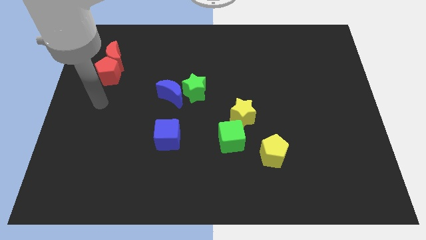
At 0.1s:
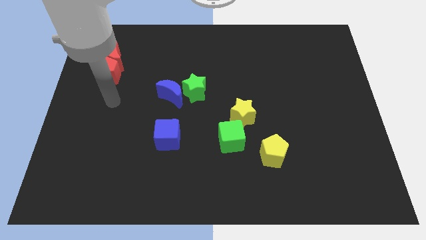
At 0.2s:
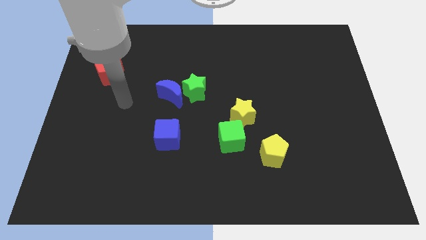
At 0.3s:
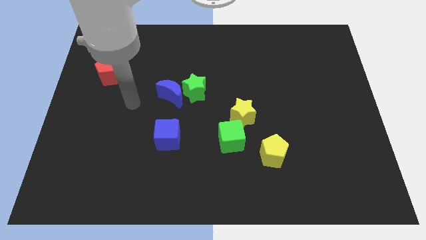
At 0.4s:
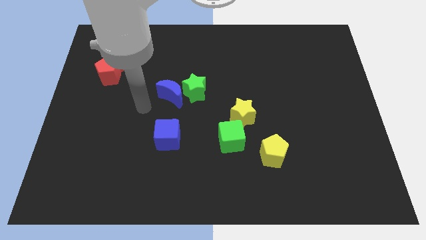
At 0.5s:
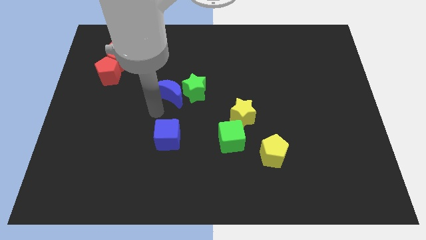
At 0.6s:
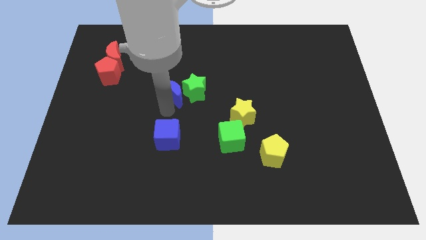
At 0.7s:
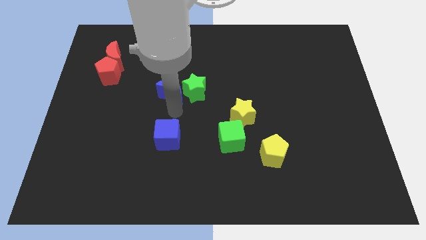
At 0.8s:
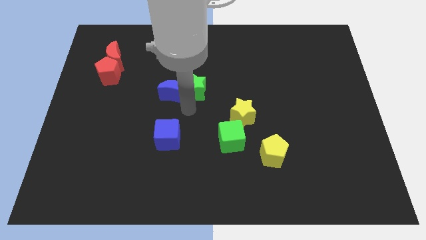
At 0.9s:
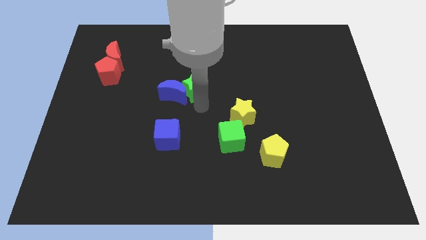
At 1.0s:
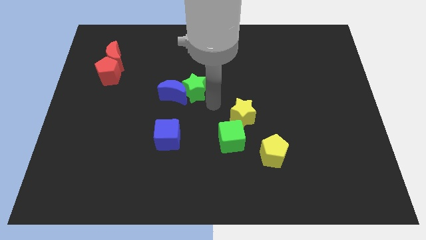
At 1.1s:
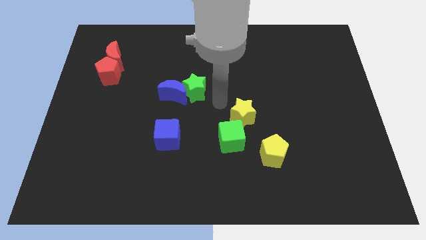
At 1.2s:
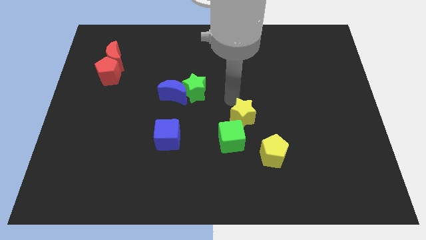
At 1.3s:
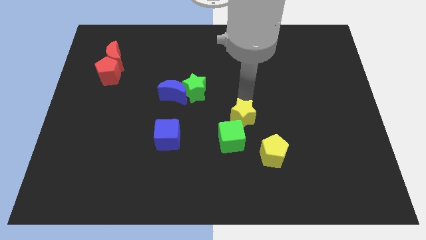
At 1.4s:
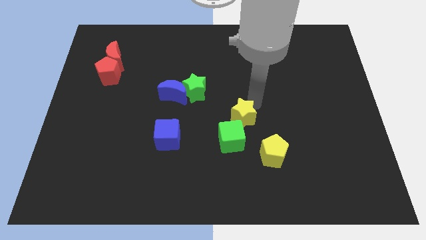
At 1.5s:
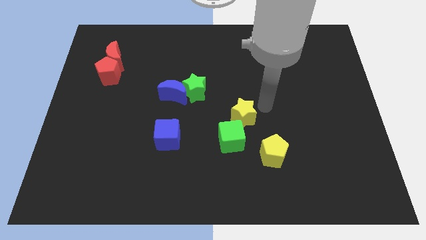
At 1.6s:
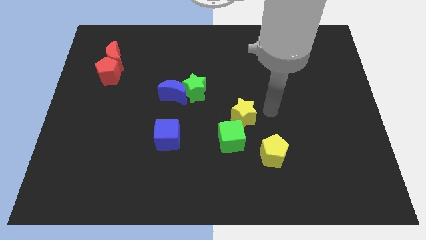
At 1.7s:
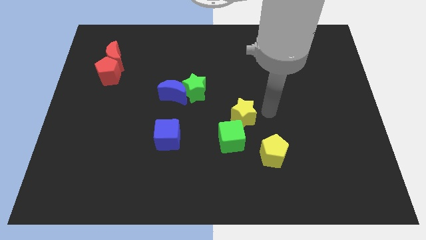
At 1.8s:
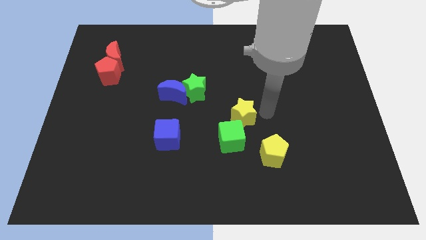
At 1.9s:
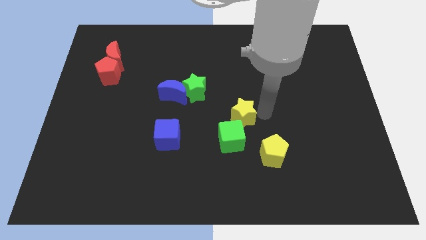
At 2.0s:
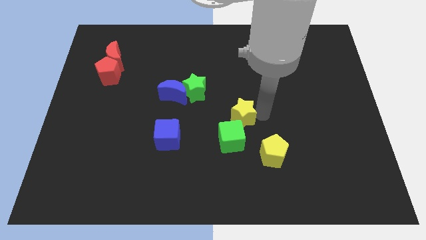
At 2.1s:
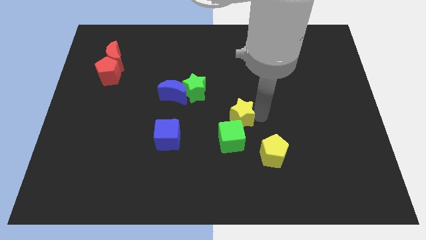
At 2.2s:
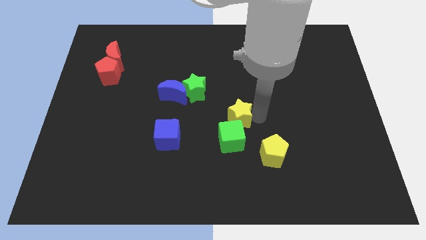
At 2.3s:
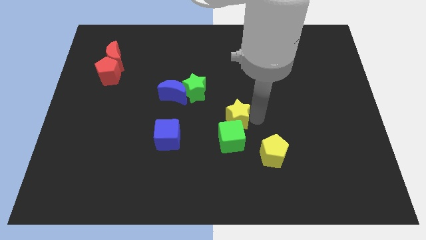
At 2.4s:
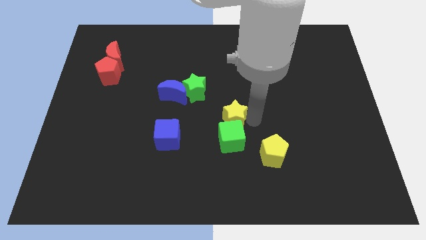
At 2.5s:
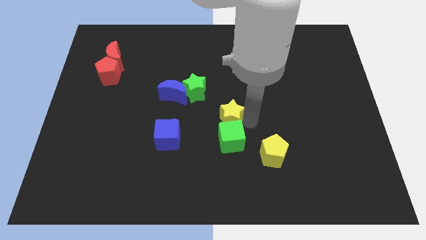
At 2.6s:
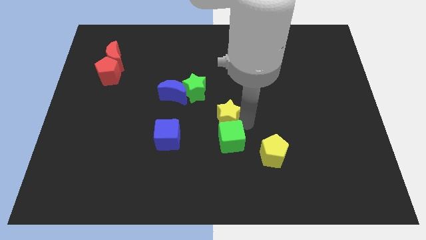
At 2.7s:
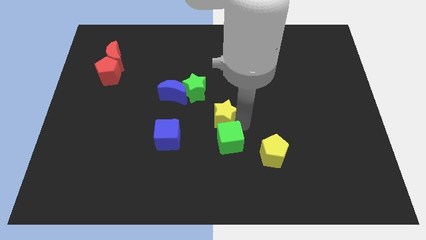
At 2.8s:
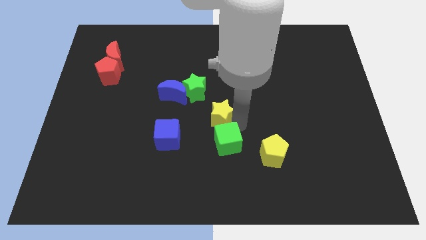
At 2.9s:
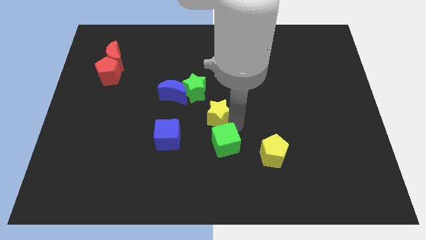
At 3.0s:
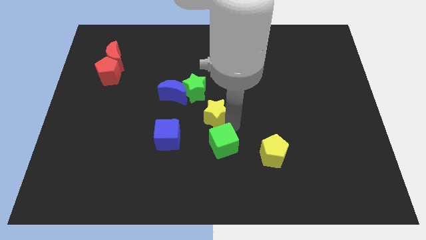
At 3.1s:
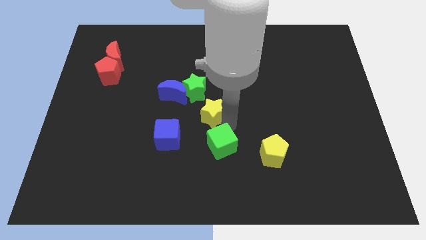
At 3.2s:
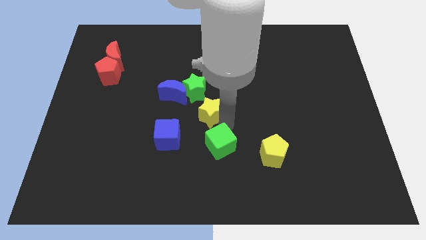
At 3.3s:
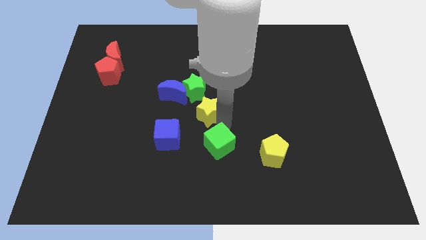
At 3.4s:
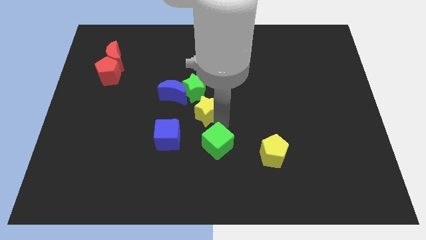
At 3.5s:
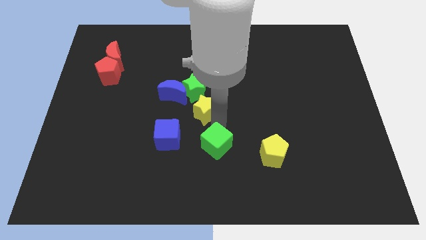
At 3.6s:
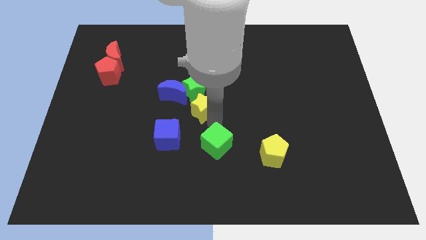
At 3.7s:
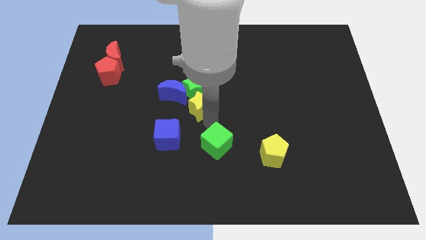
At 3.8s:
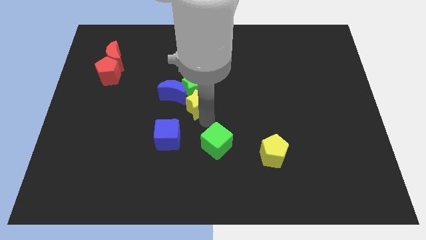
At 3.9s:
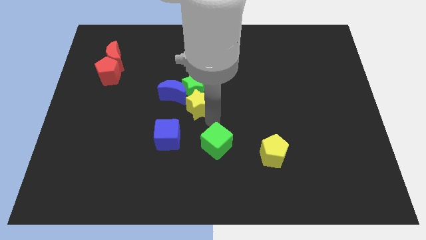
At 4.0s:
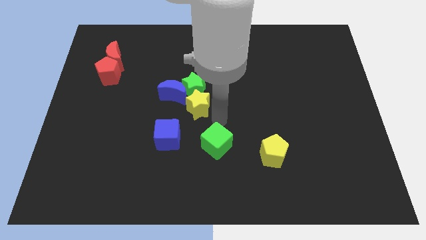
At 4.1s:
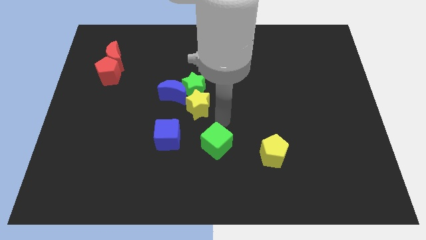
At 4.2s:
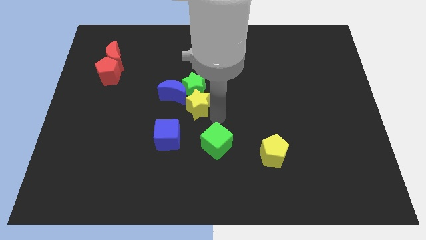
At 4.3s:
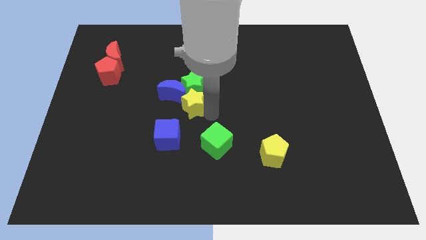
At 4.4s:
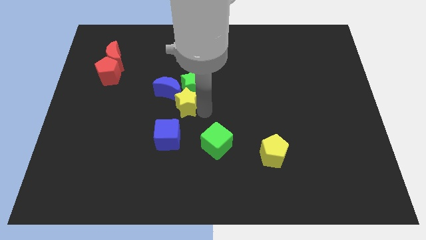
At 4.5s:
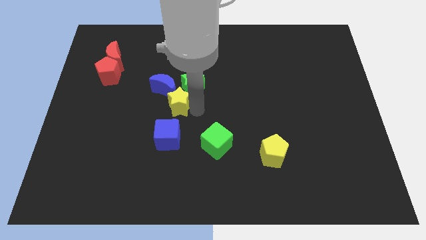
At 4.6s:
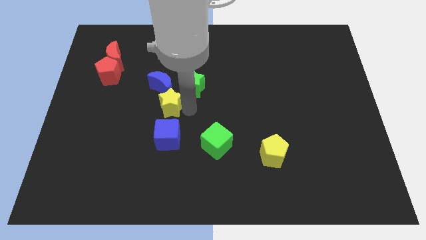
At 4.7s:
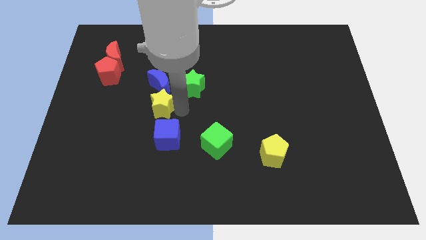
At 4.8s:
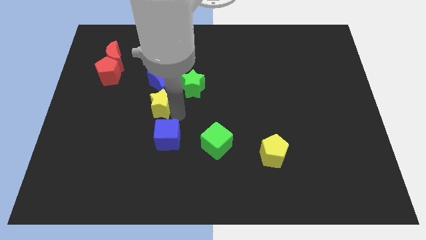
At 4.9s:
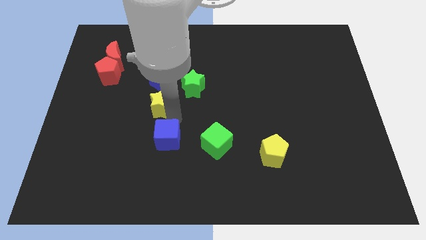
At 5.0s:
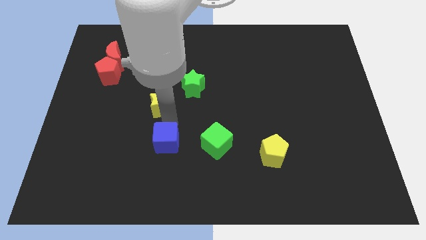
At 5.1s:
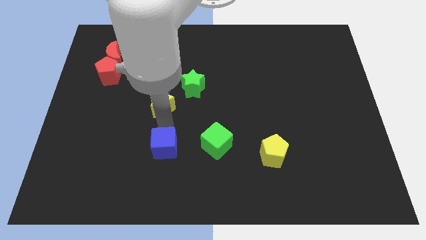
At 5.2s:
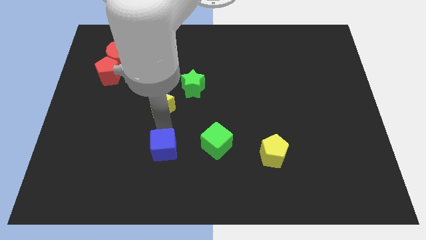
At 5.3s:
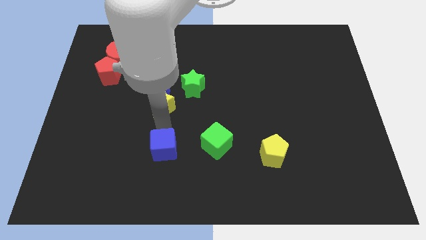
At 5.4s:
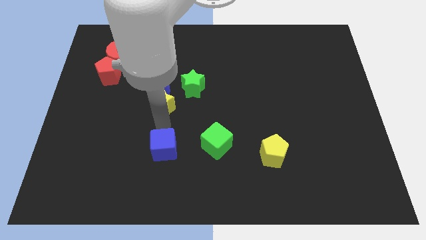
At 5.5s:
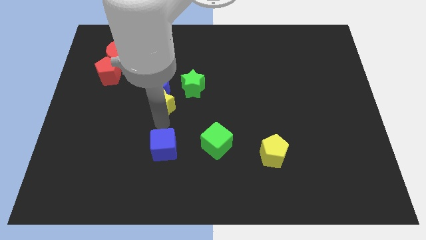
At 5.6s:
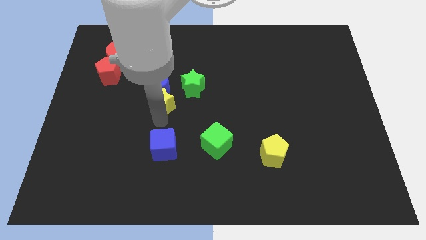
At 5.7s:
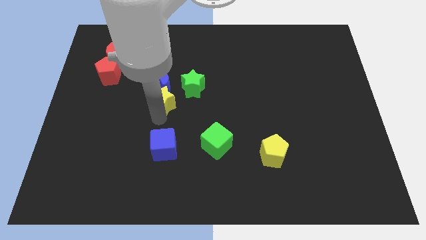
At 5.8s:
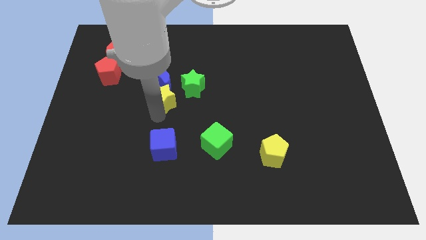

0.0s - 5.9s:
move the yellow star close to the blue moon

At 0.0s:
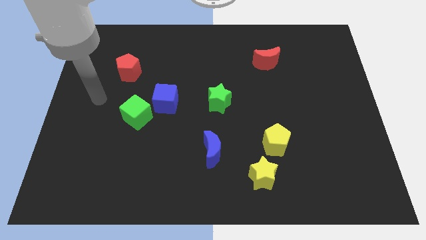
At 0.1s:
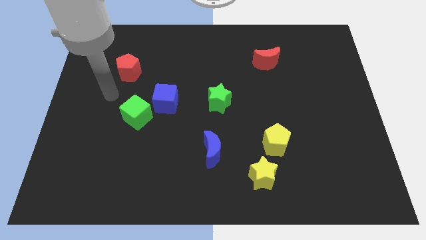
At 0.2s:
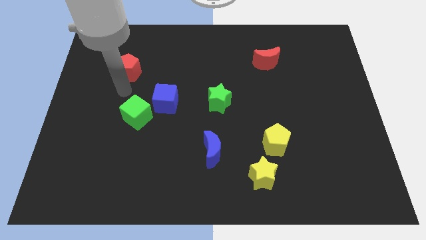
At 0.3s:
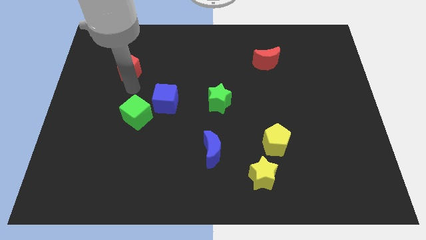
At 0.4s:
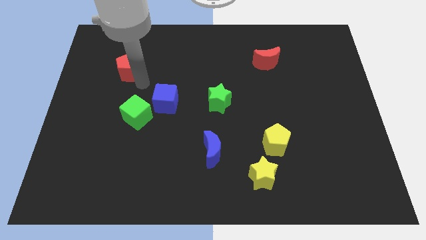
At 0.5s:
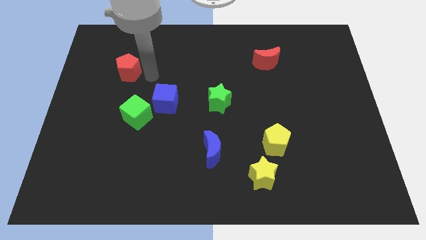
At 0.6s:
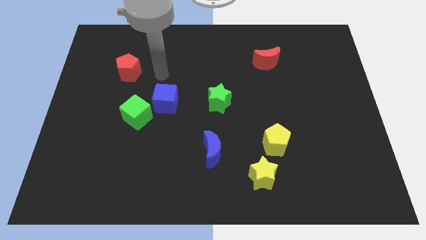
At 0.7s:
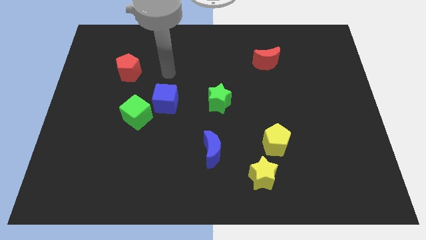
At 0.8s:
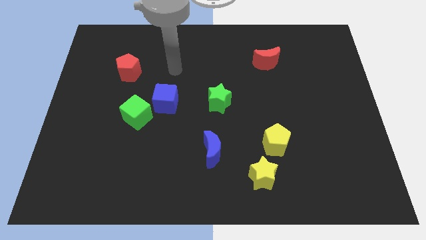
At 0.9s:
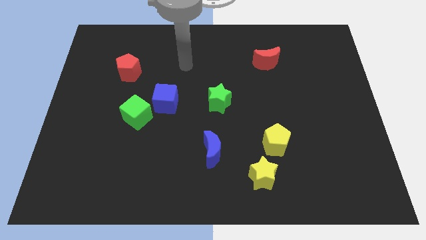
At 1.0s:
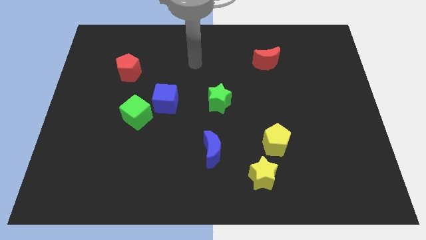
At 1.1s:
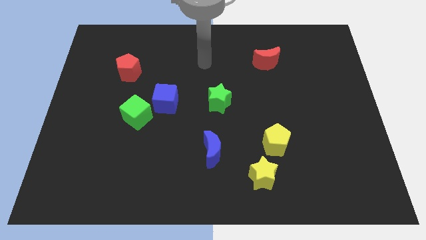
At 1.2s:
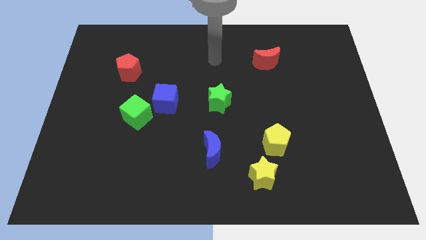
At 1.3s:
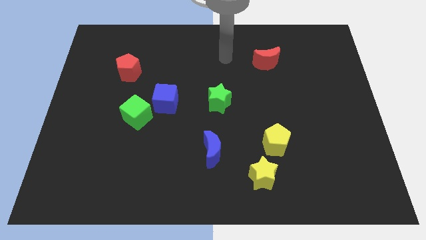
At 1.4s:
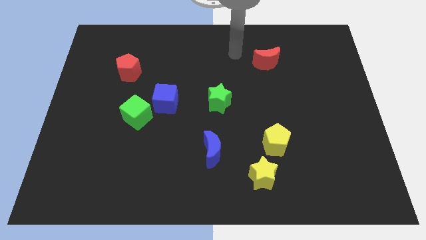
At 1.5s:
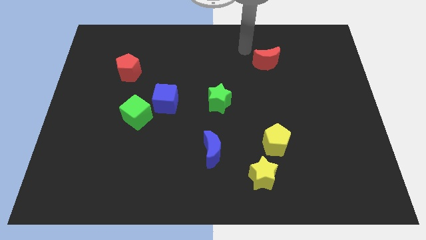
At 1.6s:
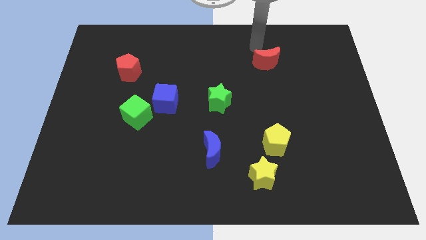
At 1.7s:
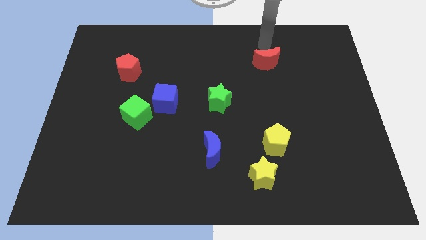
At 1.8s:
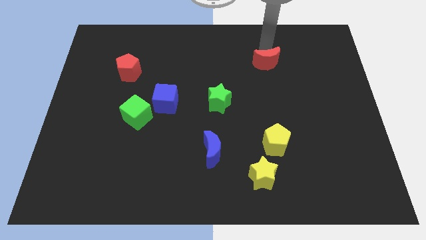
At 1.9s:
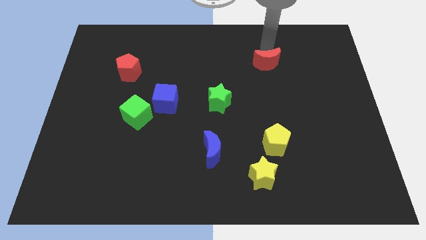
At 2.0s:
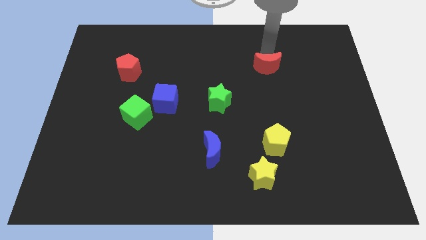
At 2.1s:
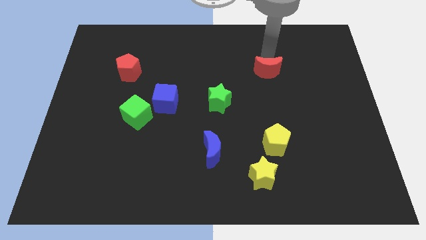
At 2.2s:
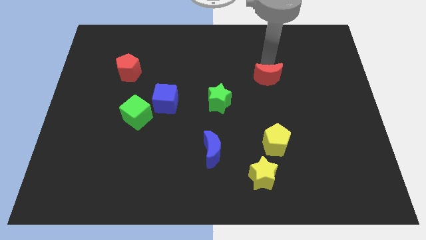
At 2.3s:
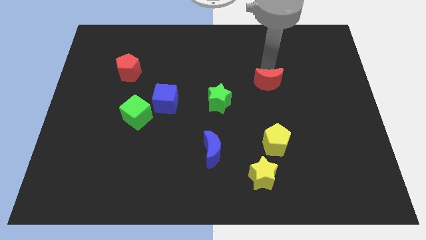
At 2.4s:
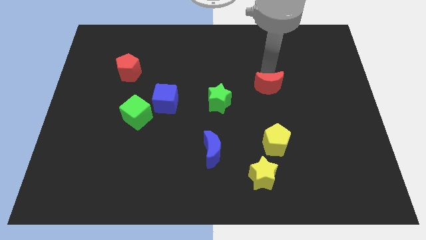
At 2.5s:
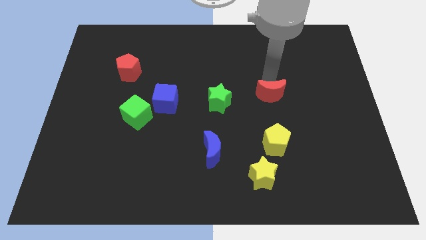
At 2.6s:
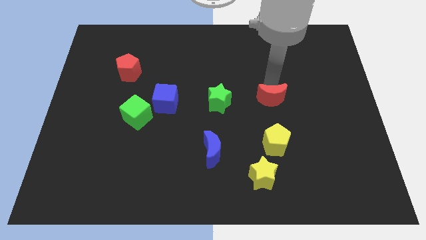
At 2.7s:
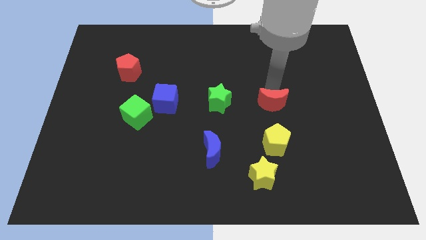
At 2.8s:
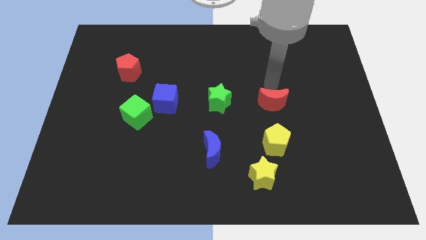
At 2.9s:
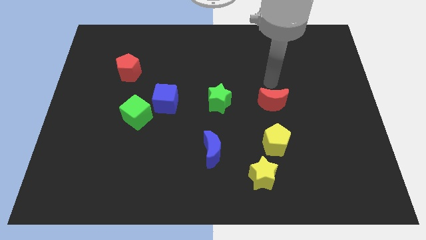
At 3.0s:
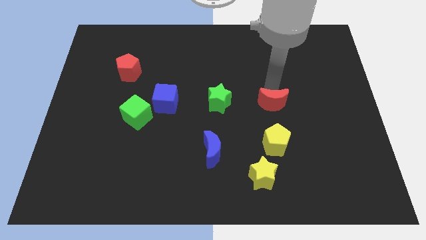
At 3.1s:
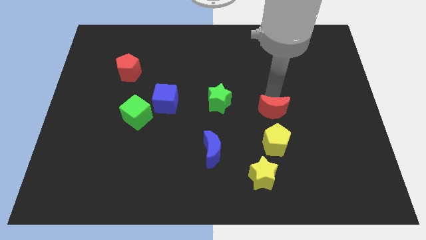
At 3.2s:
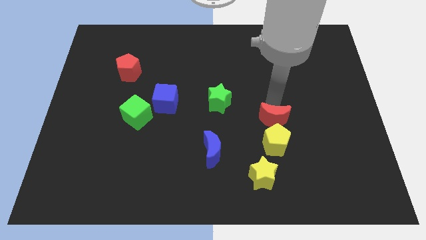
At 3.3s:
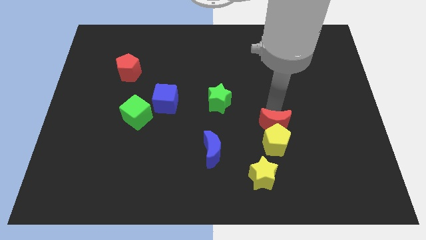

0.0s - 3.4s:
put the red moon next to the yellow pentagon
